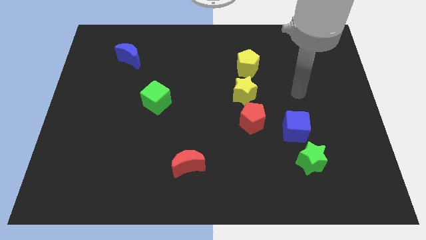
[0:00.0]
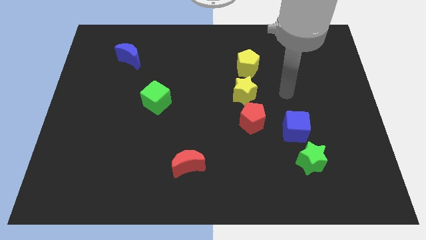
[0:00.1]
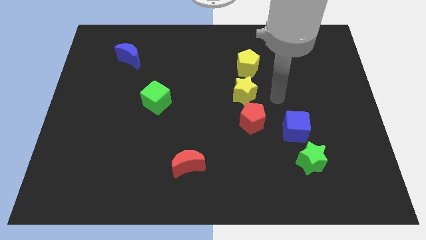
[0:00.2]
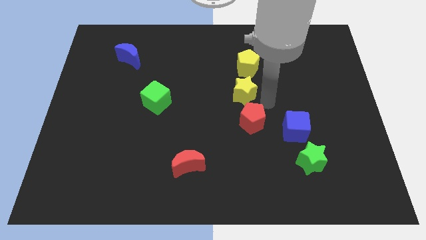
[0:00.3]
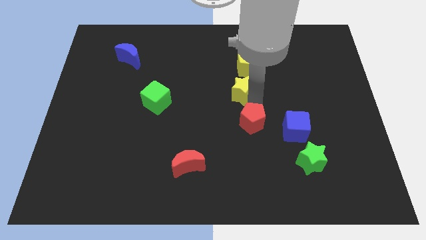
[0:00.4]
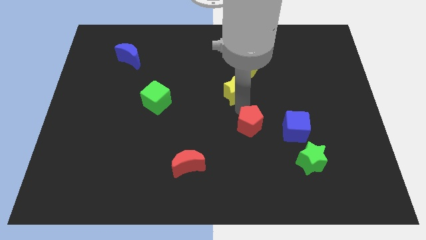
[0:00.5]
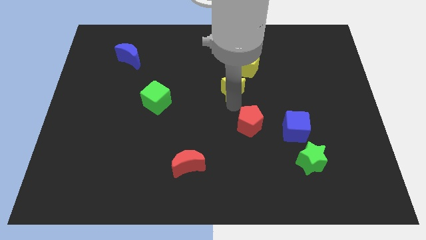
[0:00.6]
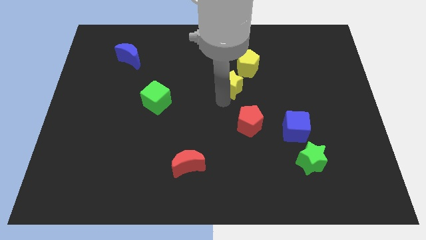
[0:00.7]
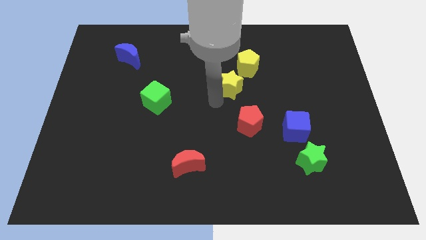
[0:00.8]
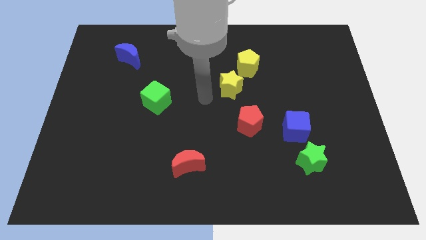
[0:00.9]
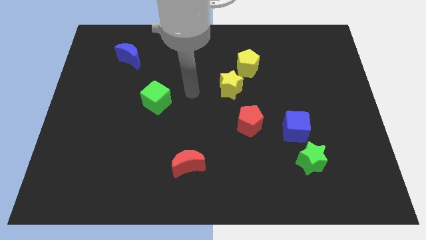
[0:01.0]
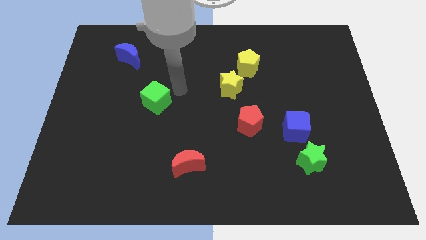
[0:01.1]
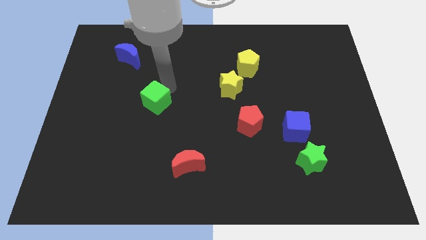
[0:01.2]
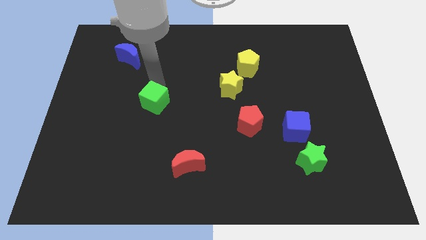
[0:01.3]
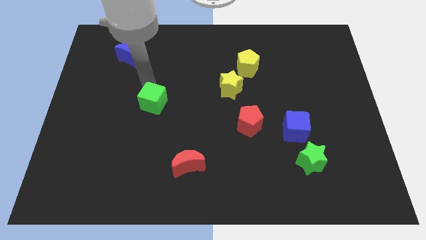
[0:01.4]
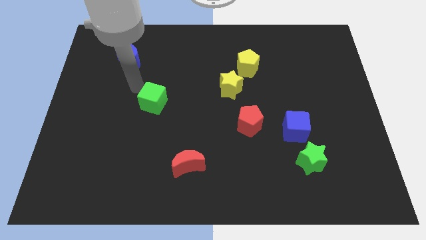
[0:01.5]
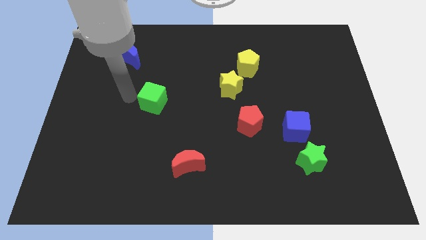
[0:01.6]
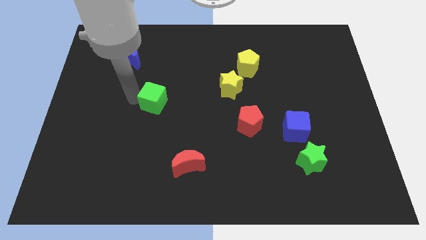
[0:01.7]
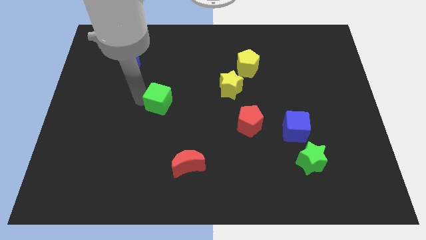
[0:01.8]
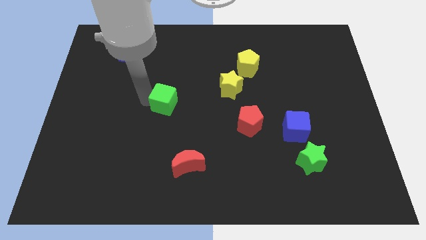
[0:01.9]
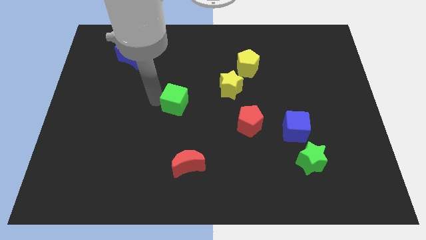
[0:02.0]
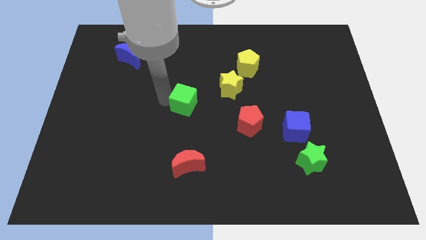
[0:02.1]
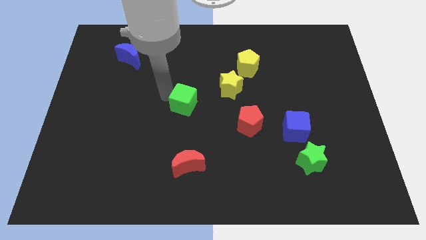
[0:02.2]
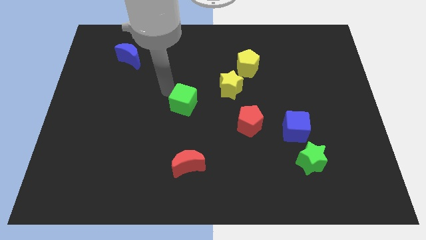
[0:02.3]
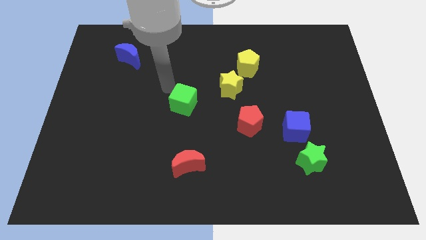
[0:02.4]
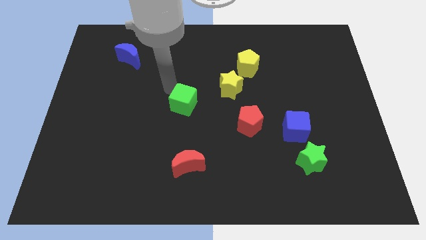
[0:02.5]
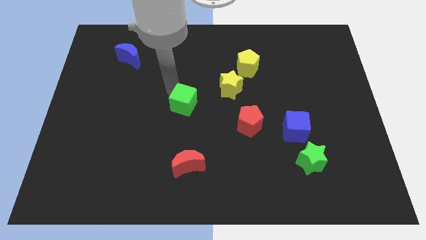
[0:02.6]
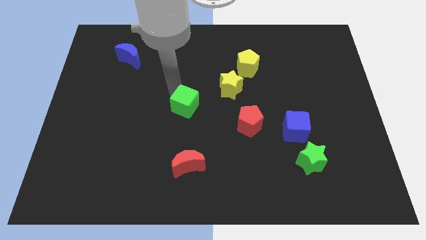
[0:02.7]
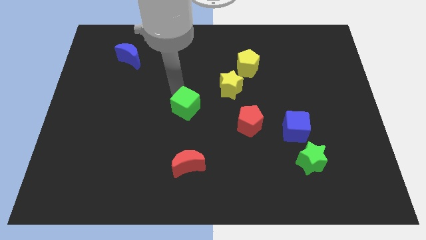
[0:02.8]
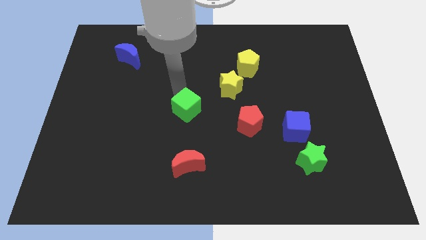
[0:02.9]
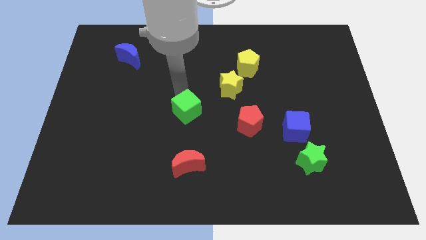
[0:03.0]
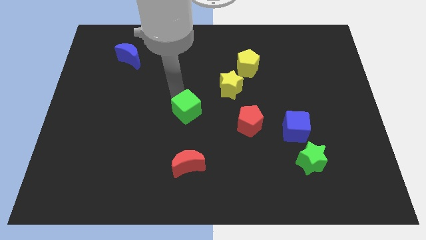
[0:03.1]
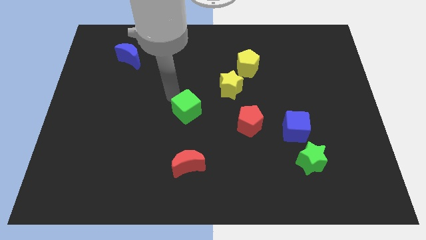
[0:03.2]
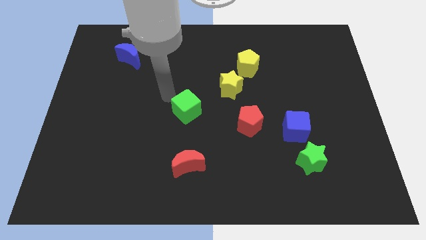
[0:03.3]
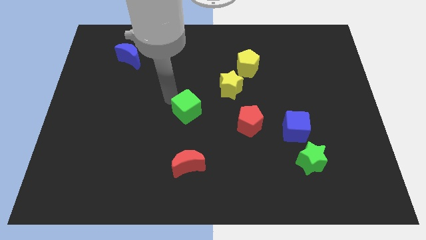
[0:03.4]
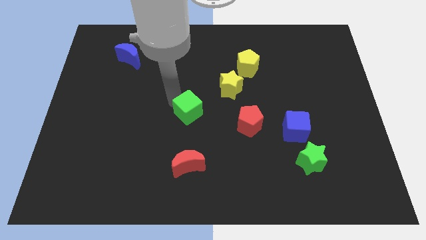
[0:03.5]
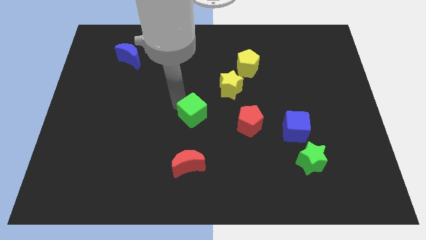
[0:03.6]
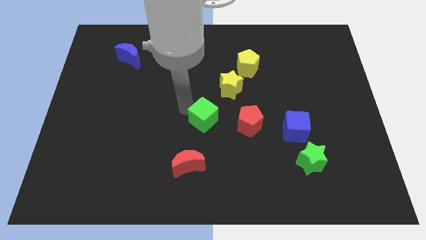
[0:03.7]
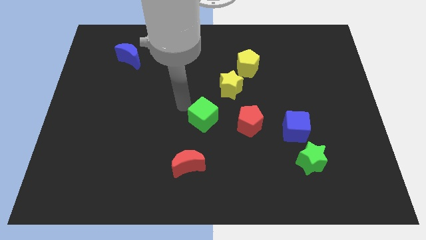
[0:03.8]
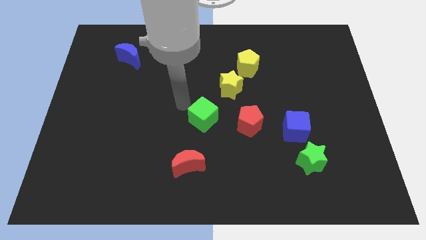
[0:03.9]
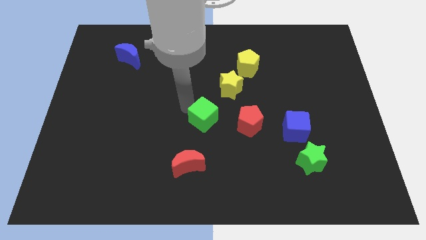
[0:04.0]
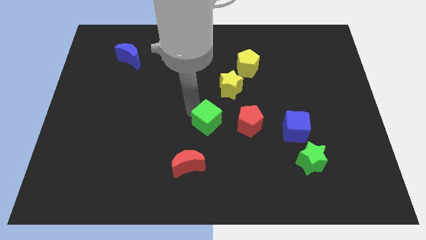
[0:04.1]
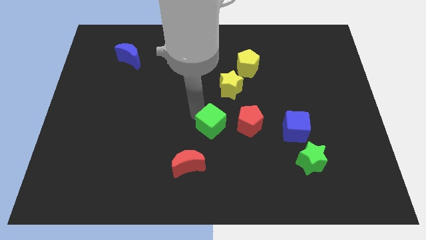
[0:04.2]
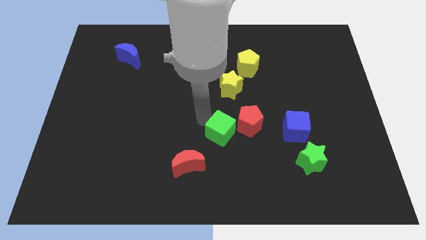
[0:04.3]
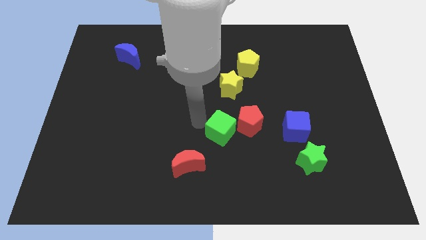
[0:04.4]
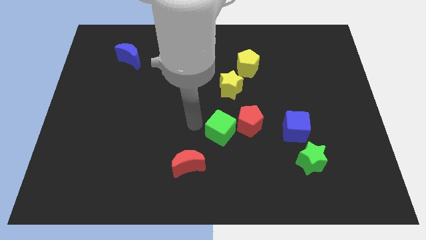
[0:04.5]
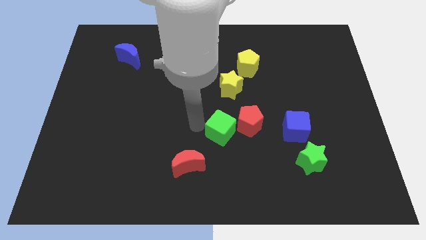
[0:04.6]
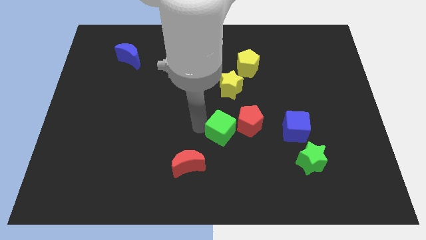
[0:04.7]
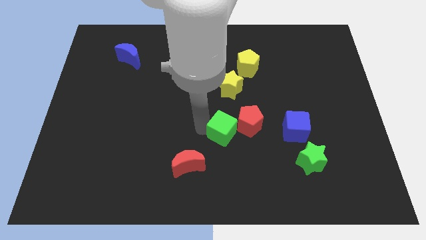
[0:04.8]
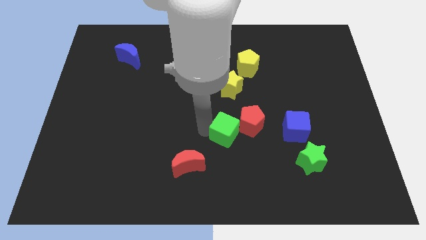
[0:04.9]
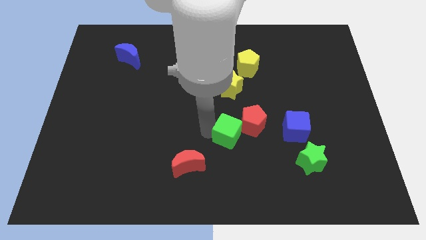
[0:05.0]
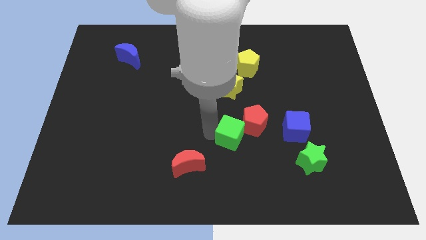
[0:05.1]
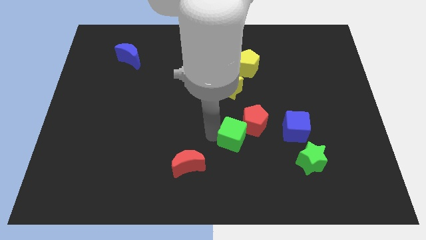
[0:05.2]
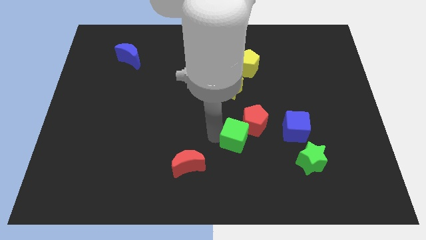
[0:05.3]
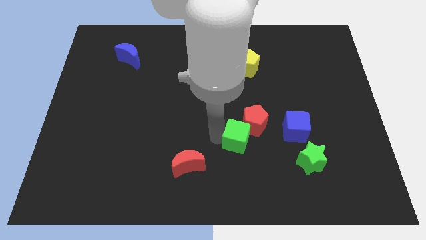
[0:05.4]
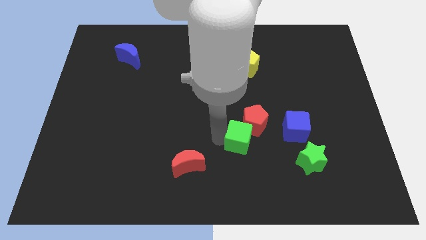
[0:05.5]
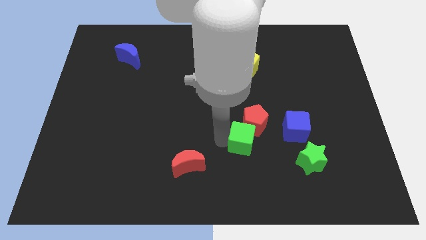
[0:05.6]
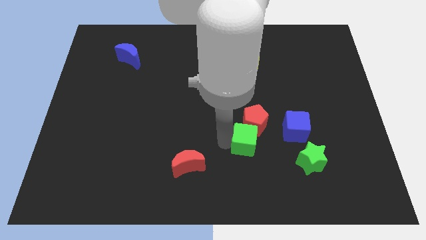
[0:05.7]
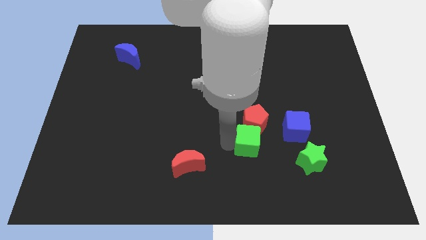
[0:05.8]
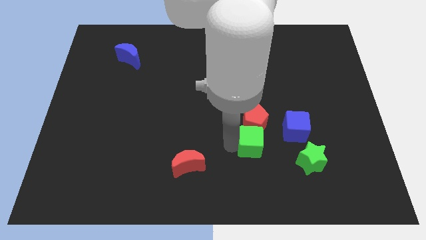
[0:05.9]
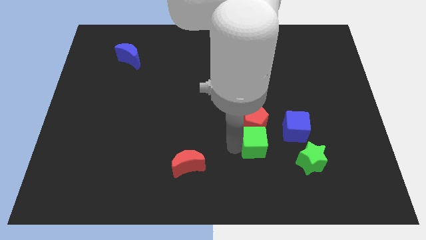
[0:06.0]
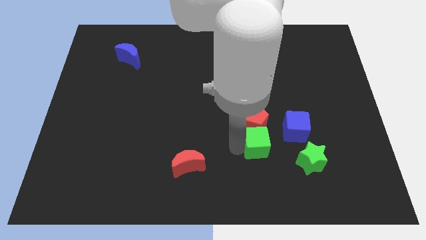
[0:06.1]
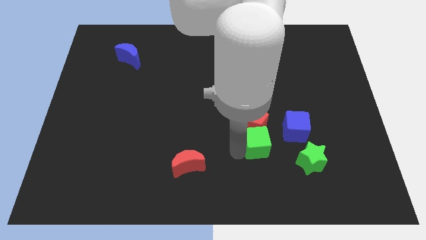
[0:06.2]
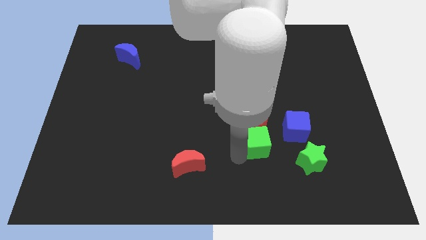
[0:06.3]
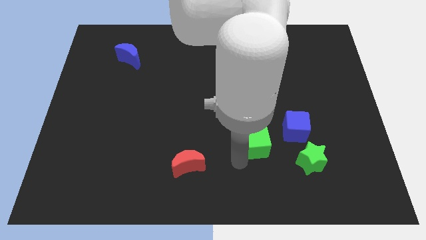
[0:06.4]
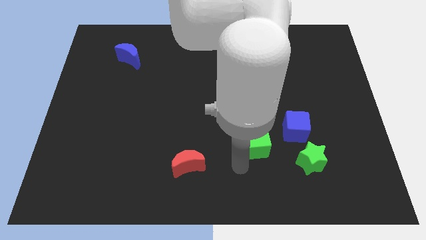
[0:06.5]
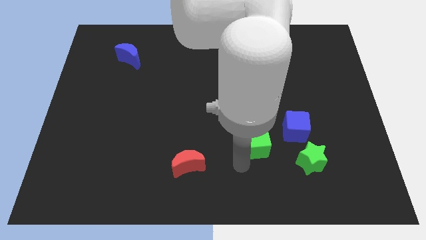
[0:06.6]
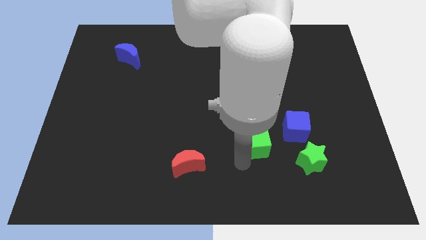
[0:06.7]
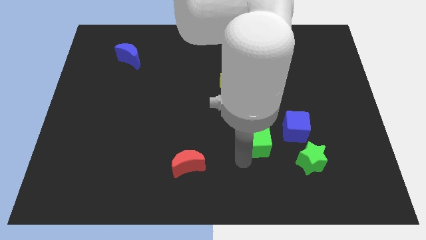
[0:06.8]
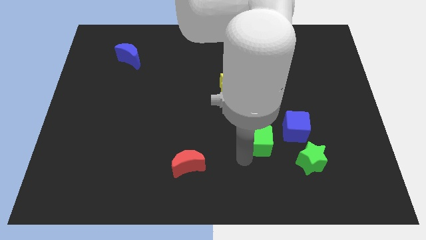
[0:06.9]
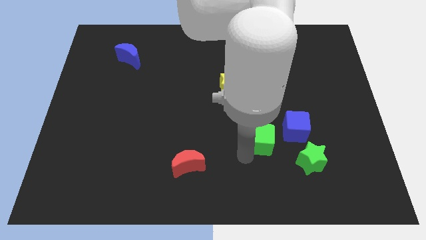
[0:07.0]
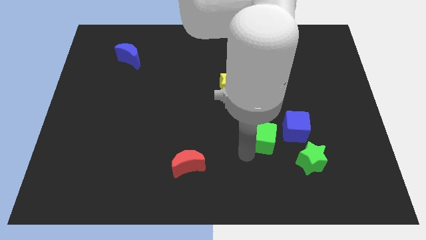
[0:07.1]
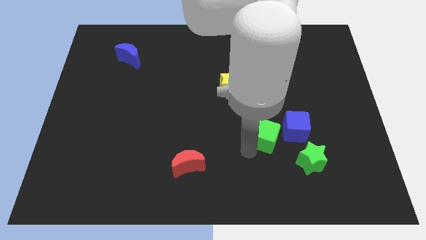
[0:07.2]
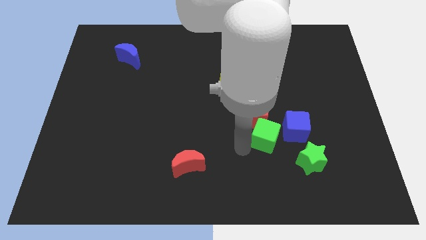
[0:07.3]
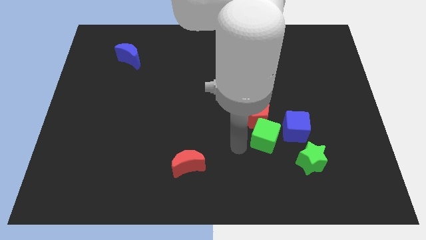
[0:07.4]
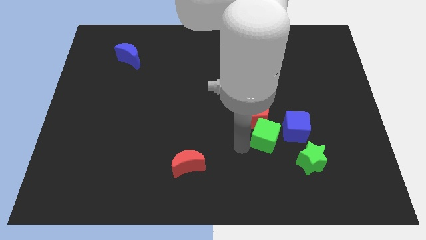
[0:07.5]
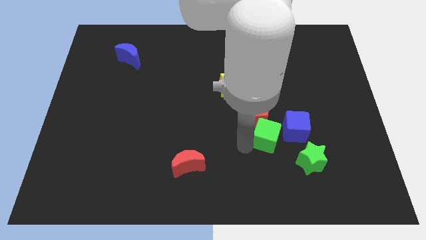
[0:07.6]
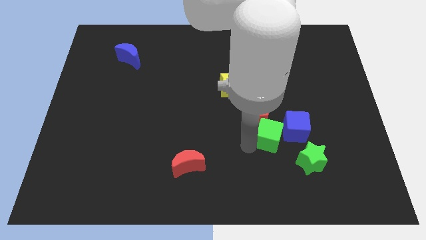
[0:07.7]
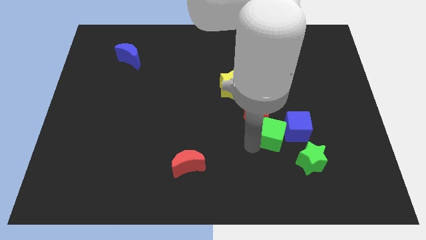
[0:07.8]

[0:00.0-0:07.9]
put the green cube next to the blue cube
